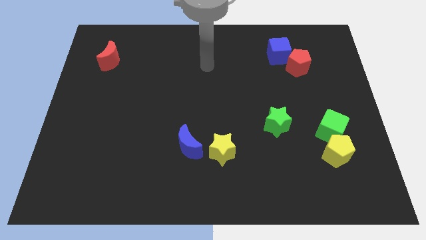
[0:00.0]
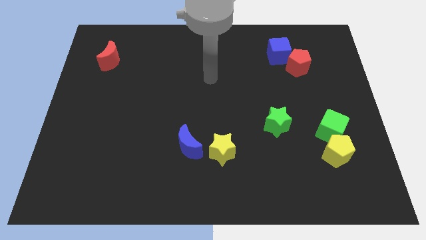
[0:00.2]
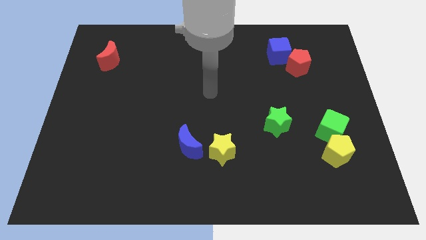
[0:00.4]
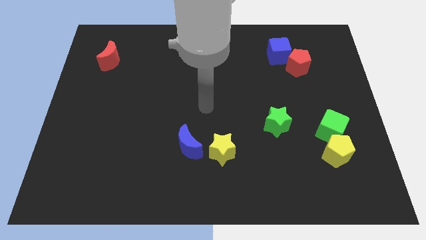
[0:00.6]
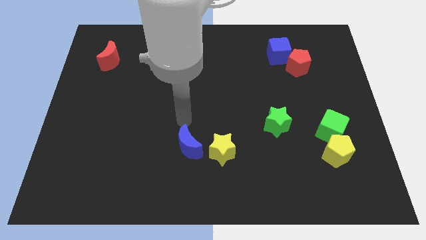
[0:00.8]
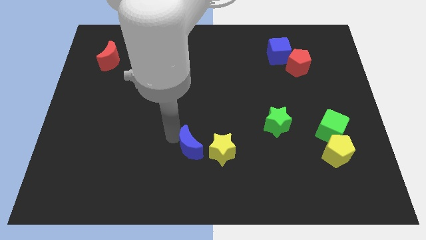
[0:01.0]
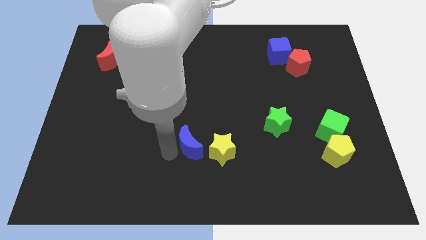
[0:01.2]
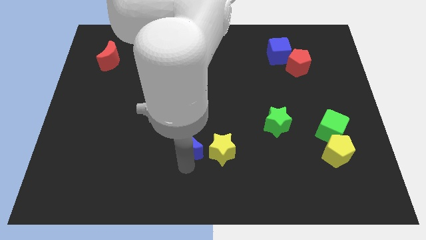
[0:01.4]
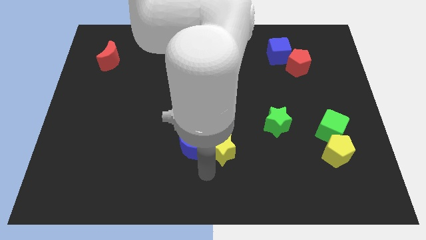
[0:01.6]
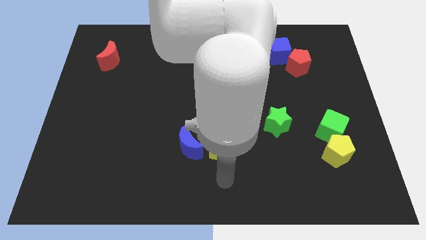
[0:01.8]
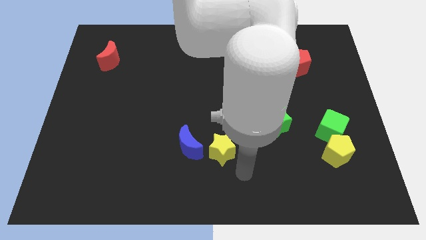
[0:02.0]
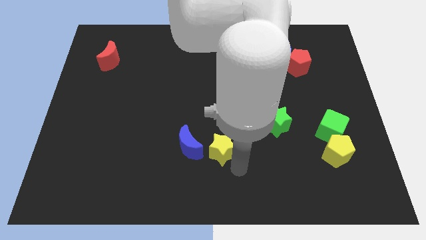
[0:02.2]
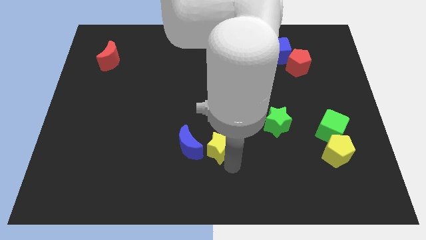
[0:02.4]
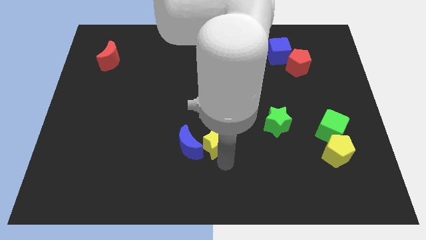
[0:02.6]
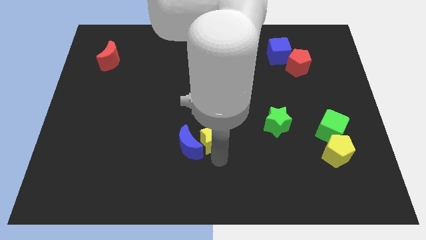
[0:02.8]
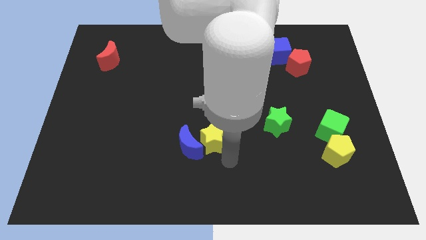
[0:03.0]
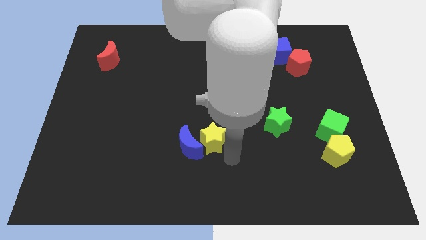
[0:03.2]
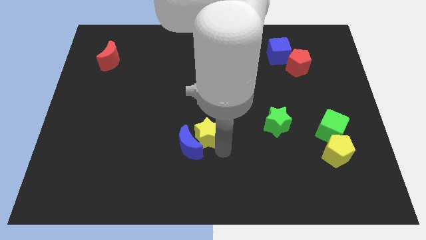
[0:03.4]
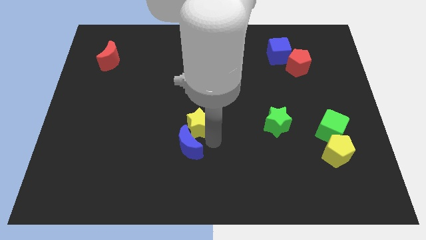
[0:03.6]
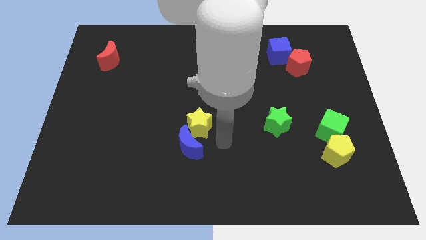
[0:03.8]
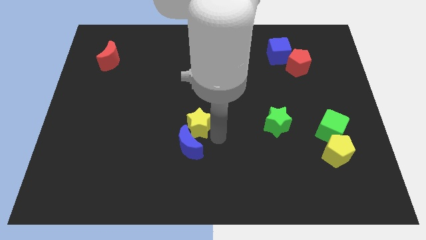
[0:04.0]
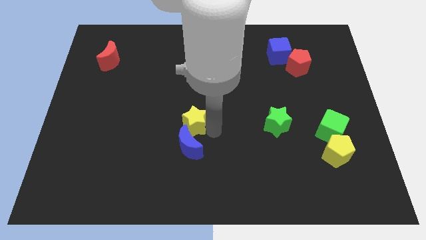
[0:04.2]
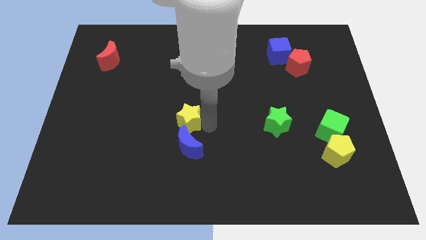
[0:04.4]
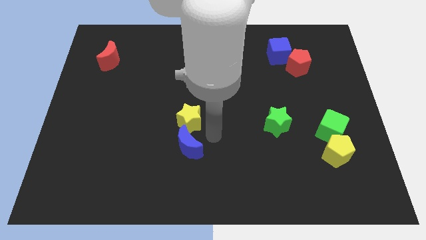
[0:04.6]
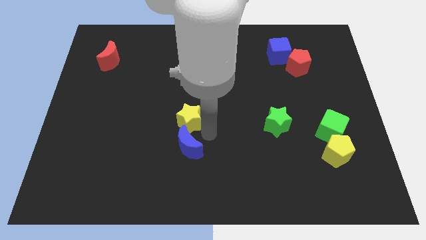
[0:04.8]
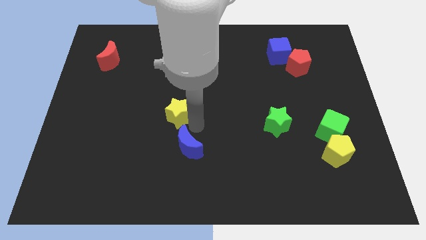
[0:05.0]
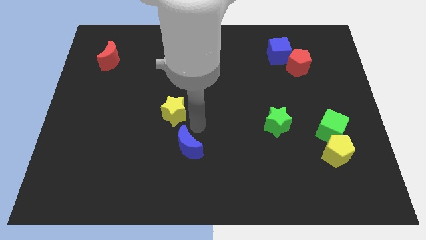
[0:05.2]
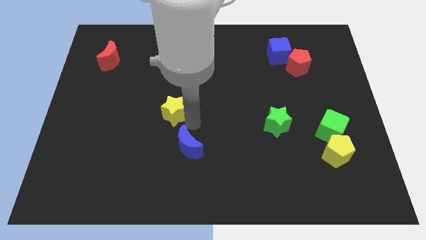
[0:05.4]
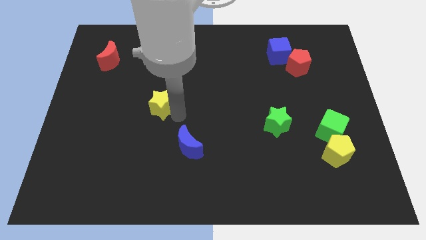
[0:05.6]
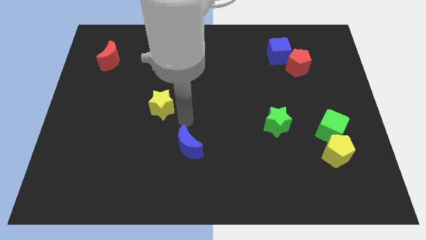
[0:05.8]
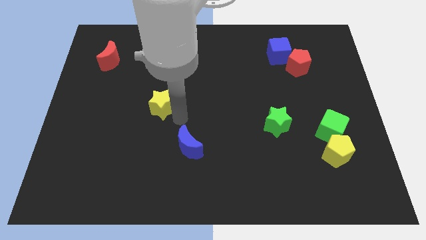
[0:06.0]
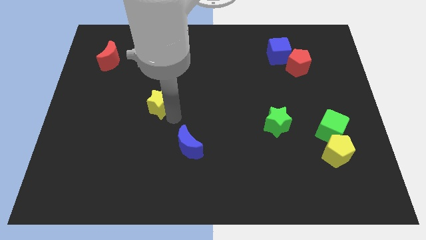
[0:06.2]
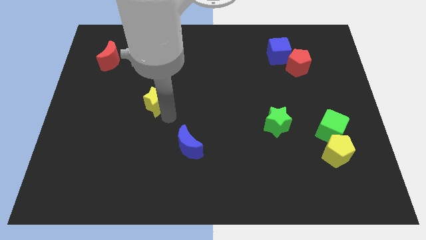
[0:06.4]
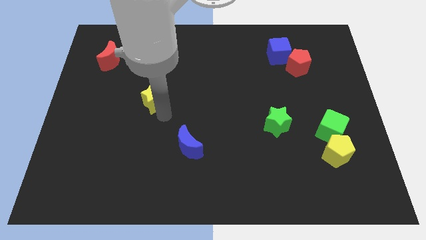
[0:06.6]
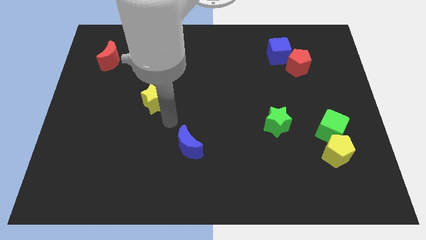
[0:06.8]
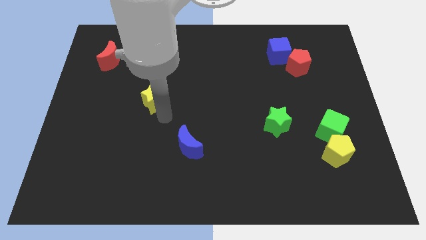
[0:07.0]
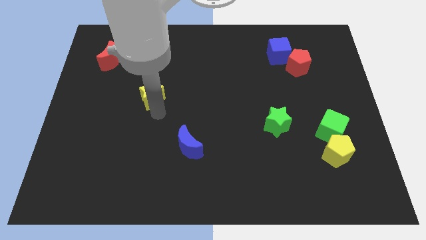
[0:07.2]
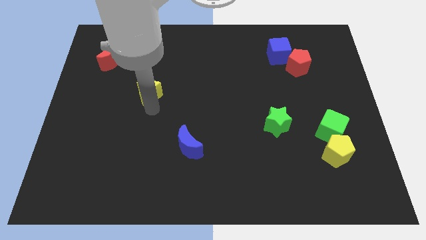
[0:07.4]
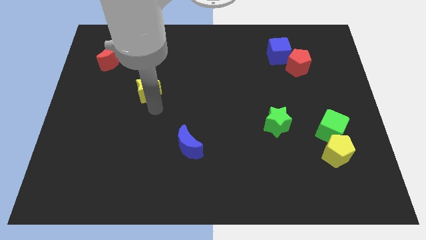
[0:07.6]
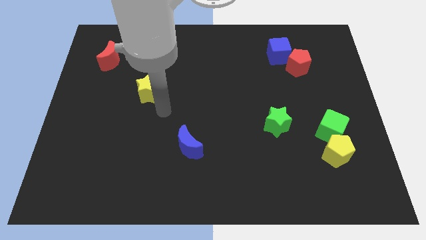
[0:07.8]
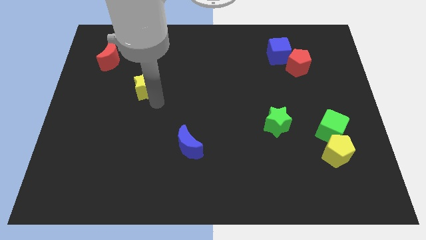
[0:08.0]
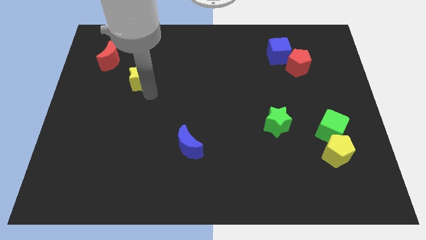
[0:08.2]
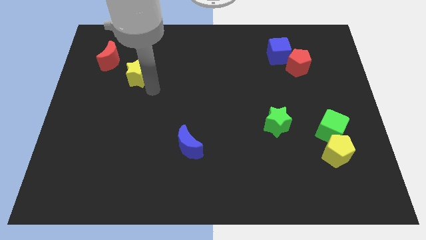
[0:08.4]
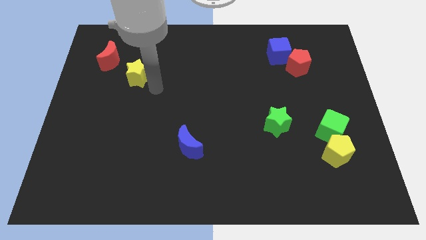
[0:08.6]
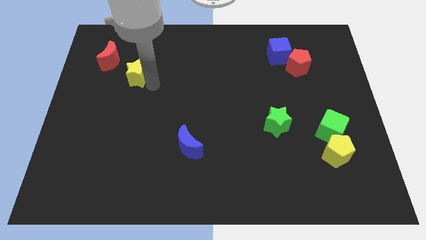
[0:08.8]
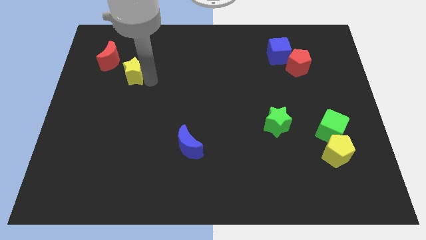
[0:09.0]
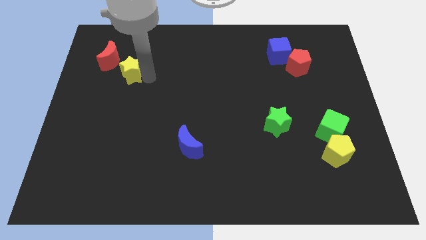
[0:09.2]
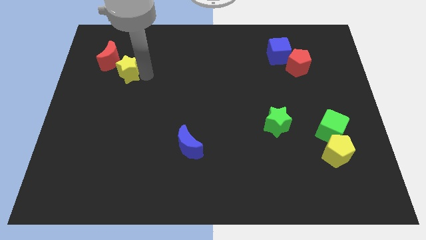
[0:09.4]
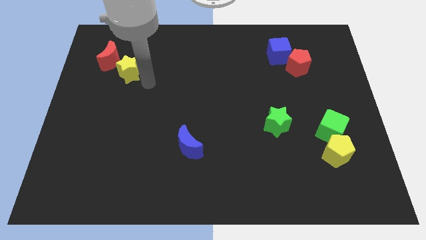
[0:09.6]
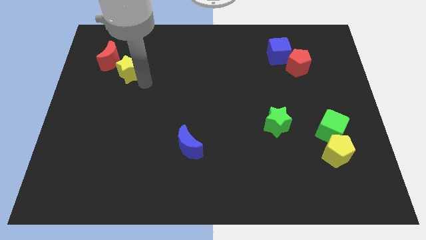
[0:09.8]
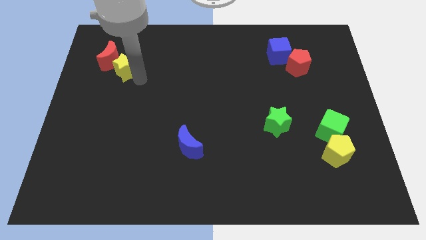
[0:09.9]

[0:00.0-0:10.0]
slide the yellow star close to the red moon

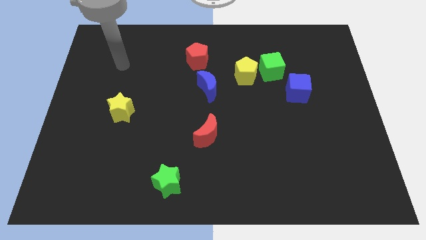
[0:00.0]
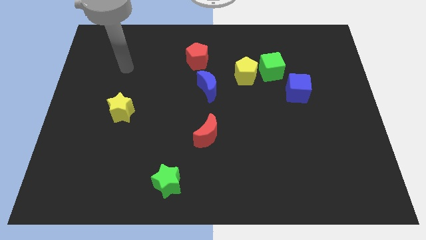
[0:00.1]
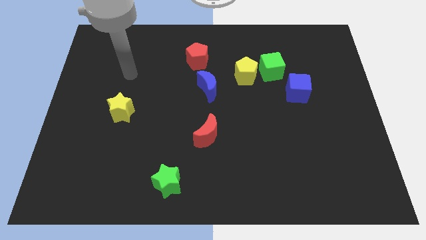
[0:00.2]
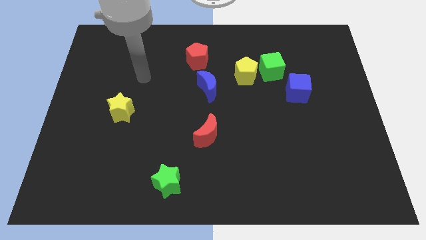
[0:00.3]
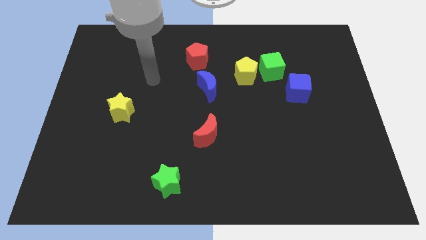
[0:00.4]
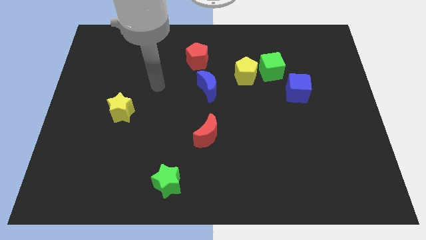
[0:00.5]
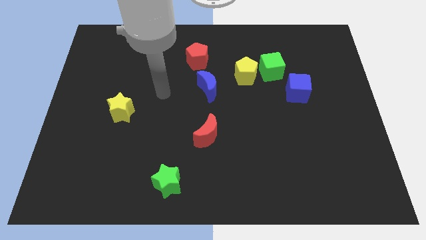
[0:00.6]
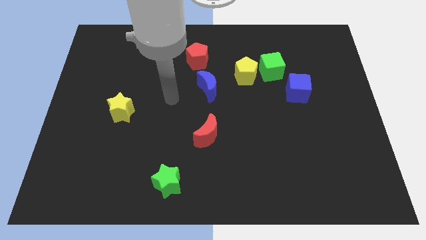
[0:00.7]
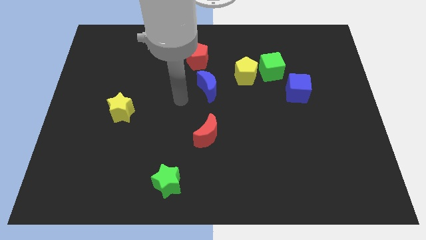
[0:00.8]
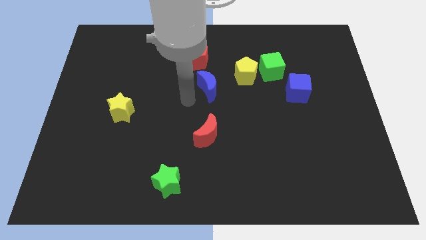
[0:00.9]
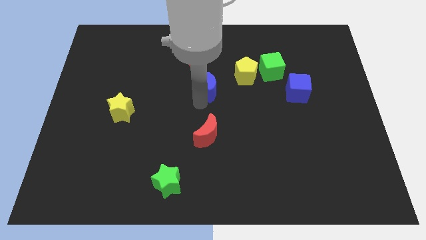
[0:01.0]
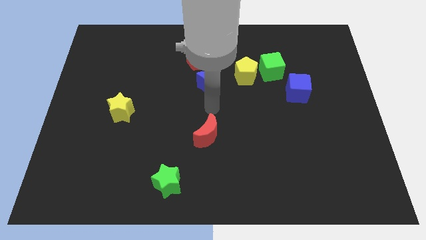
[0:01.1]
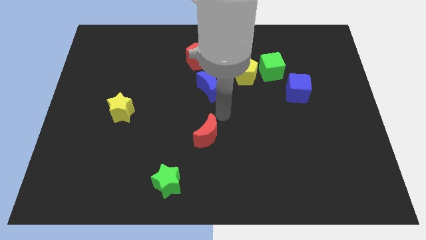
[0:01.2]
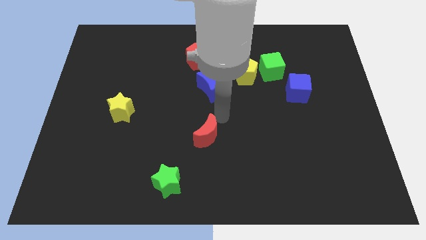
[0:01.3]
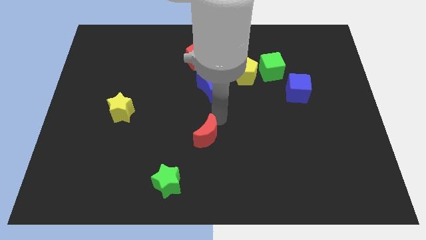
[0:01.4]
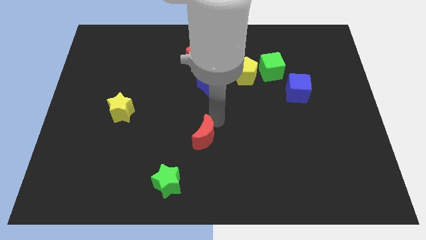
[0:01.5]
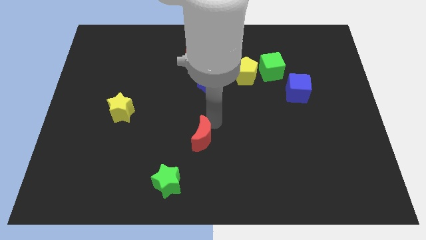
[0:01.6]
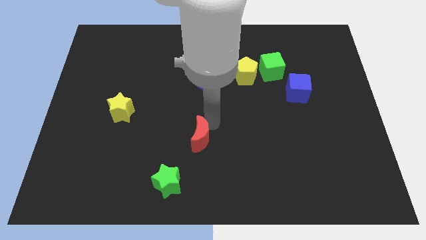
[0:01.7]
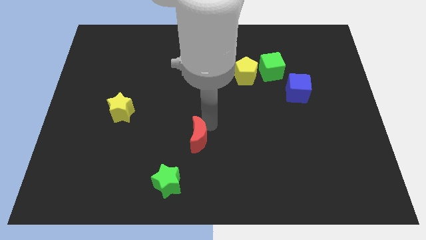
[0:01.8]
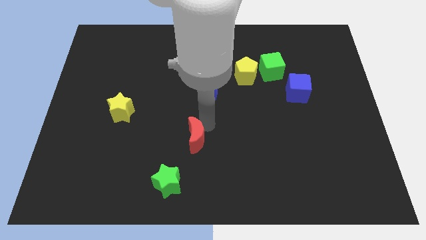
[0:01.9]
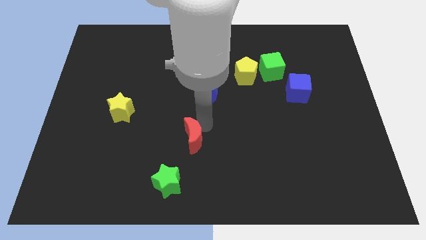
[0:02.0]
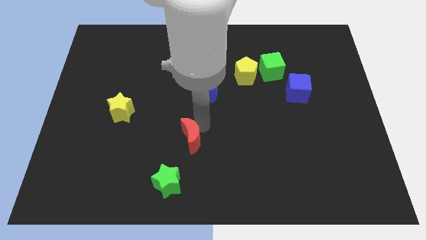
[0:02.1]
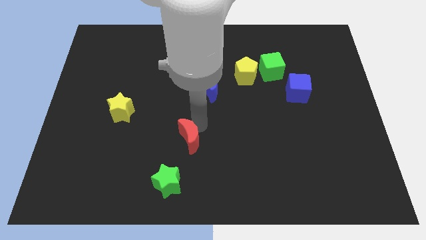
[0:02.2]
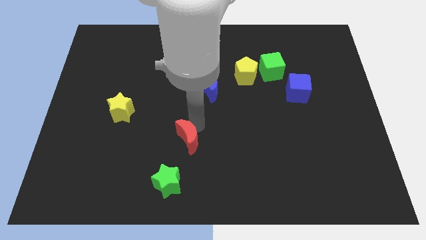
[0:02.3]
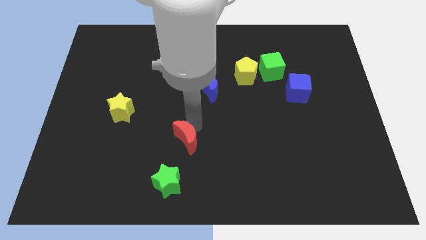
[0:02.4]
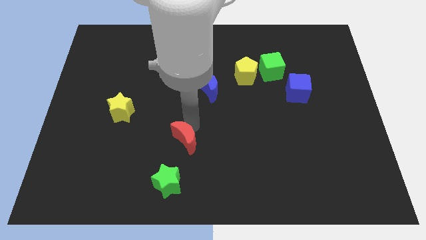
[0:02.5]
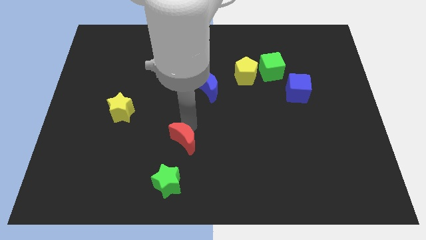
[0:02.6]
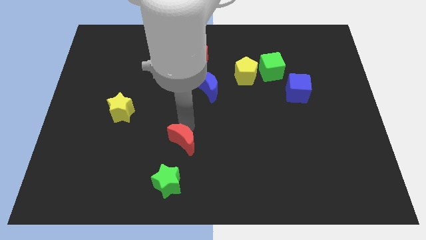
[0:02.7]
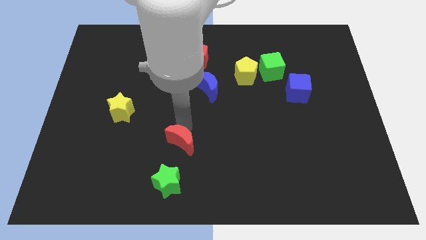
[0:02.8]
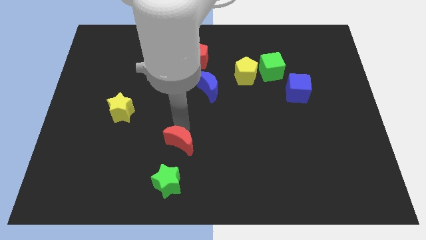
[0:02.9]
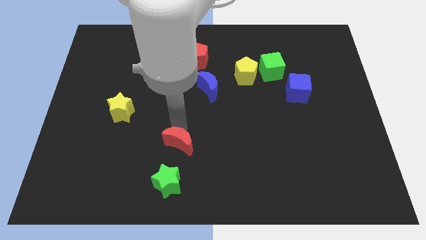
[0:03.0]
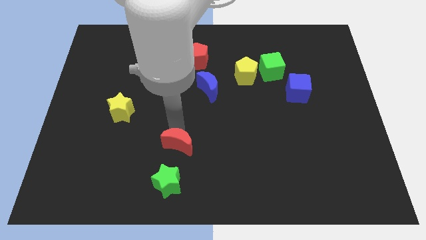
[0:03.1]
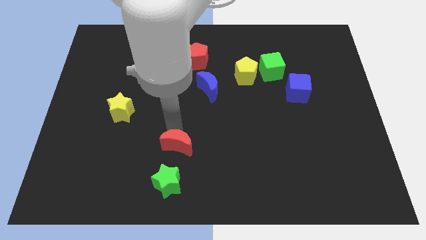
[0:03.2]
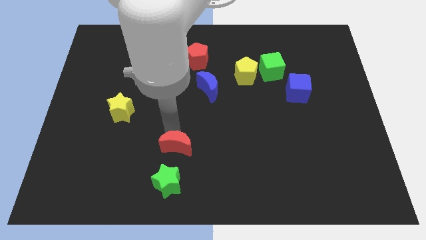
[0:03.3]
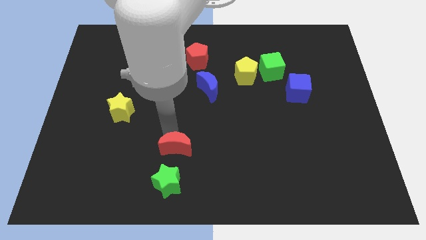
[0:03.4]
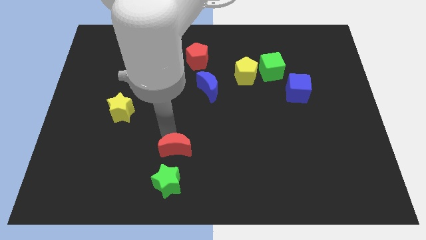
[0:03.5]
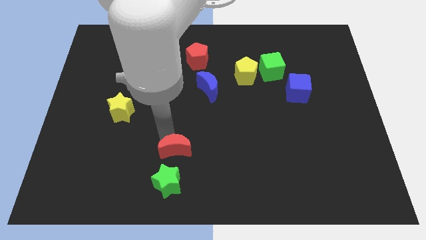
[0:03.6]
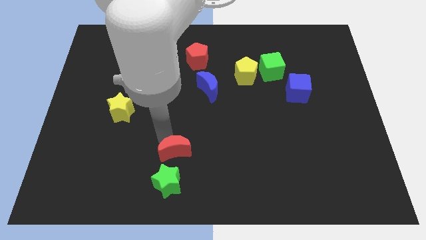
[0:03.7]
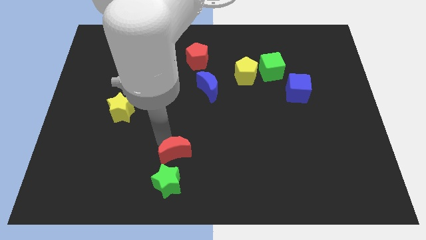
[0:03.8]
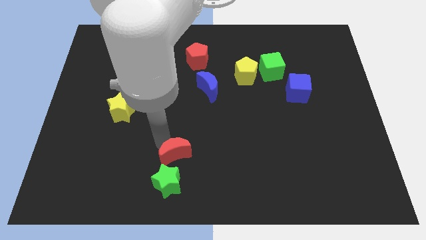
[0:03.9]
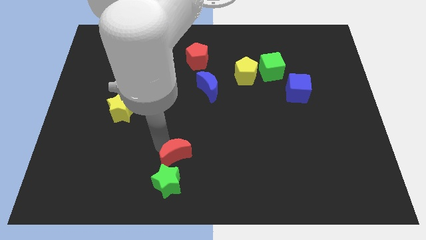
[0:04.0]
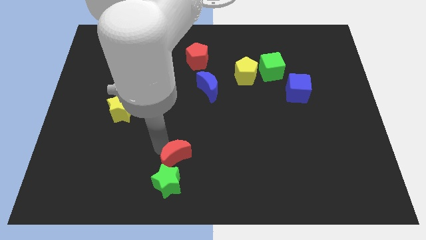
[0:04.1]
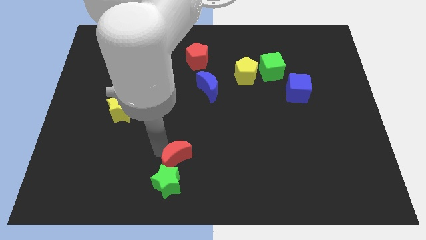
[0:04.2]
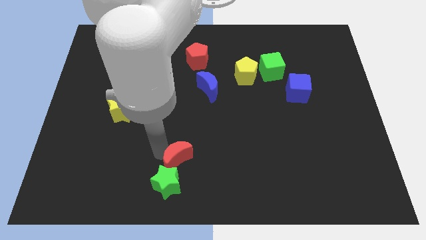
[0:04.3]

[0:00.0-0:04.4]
move the red moon towards the green star
